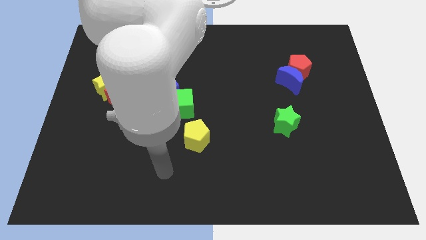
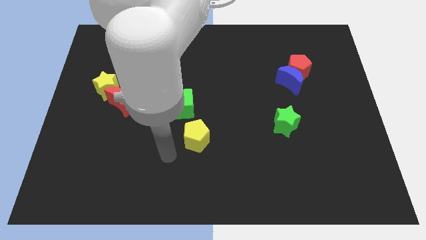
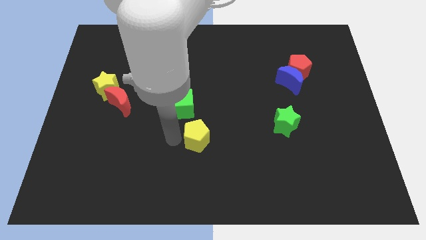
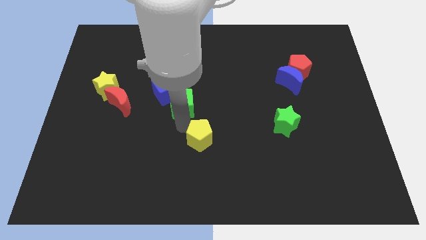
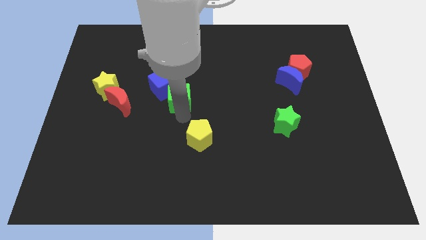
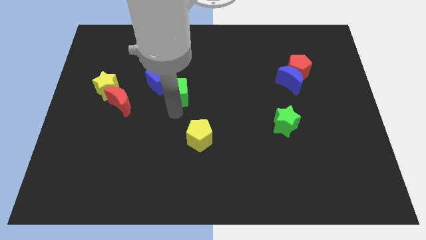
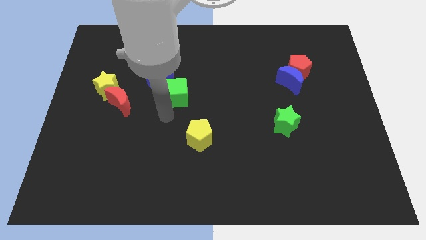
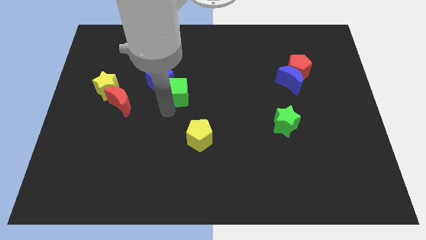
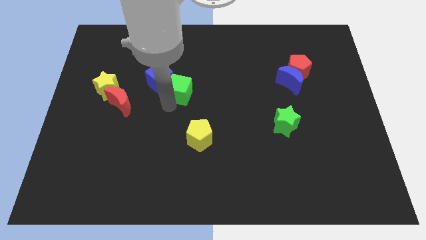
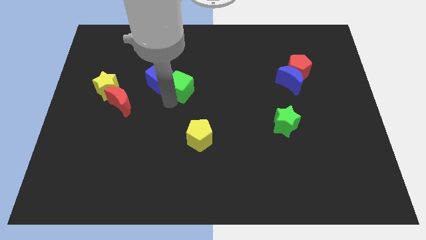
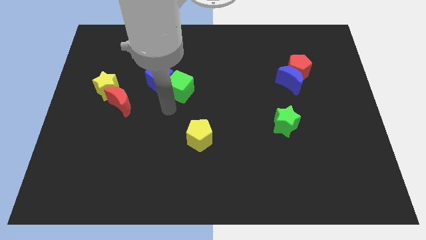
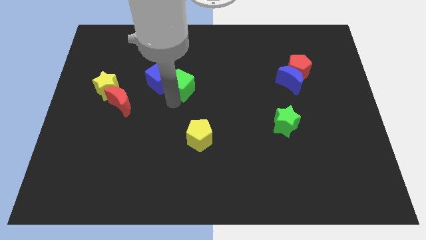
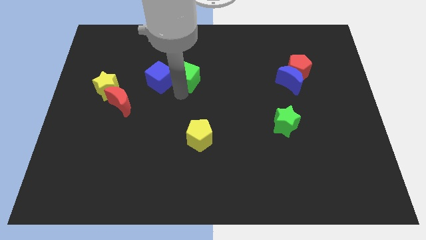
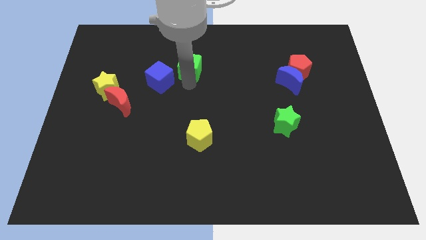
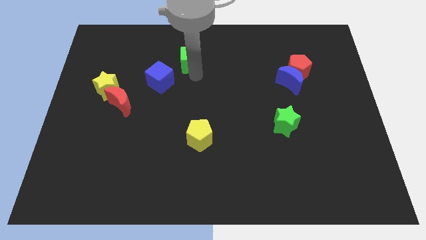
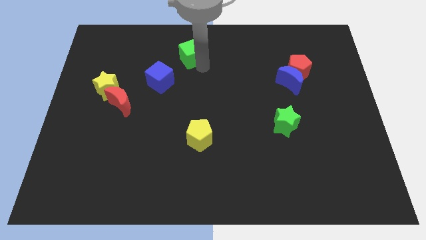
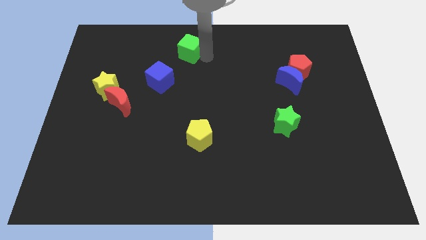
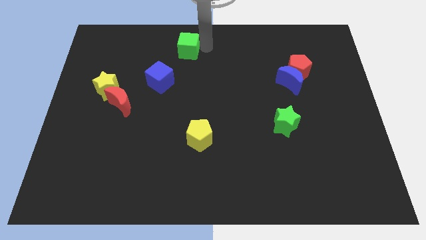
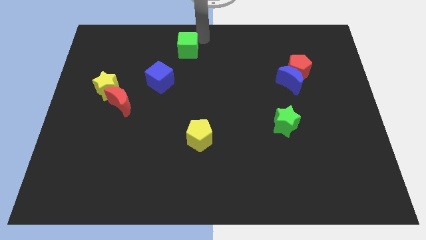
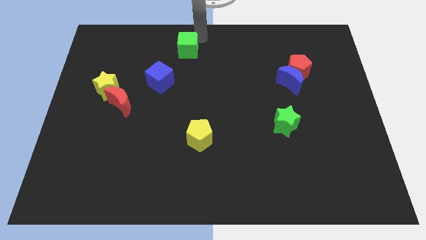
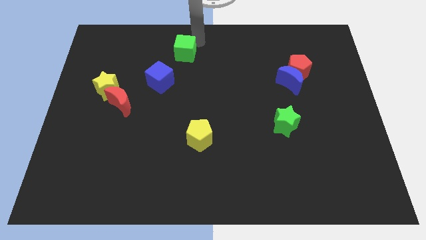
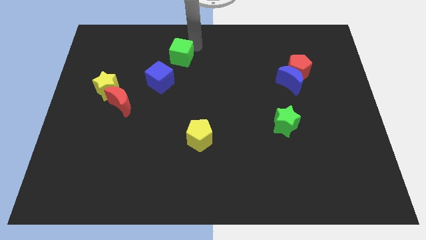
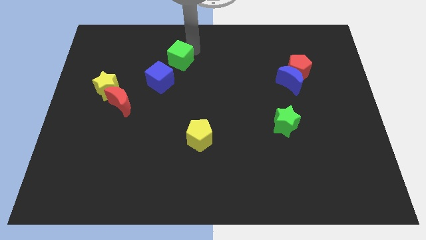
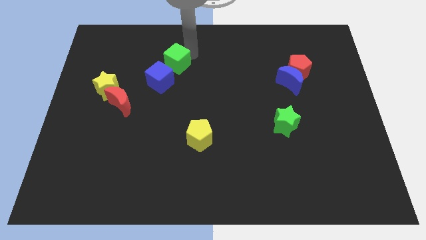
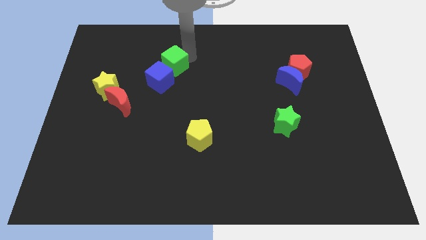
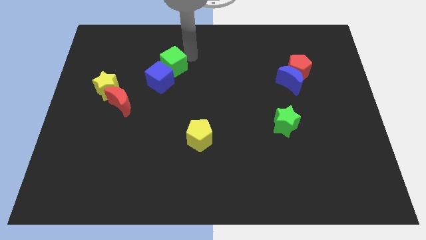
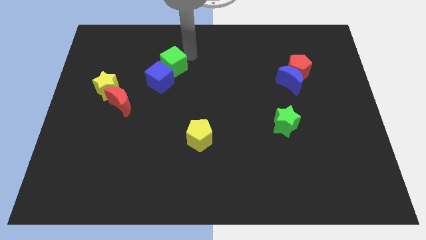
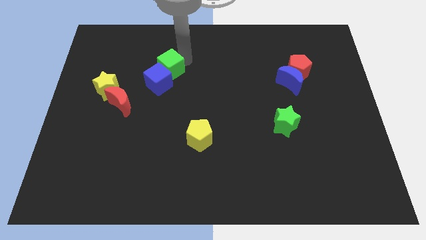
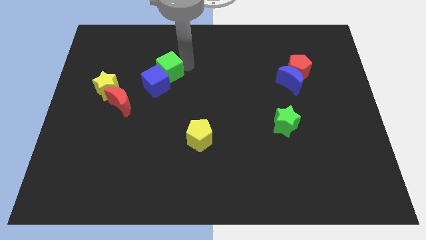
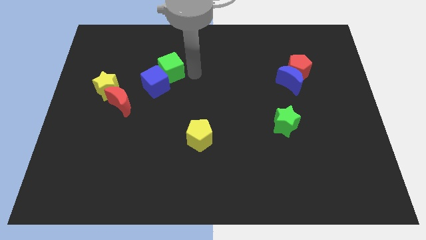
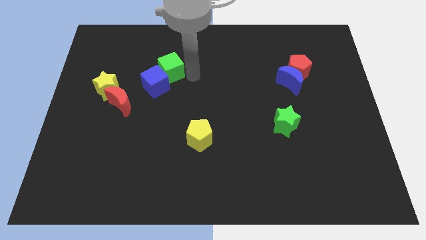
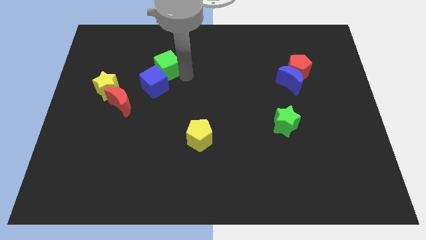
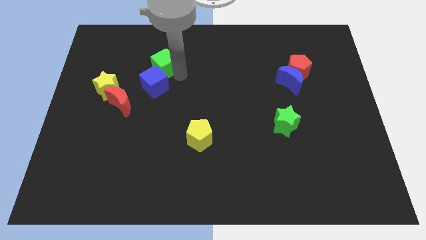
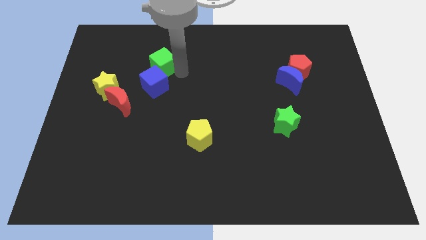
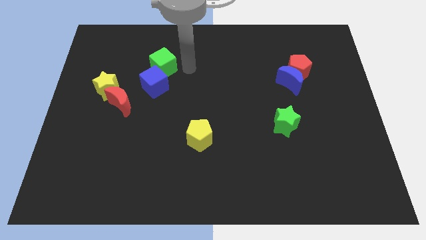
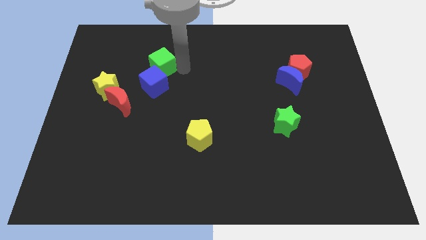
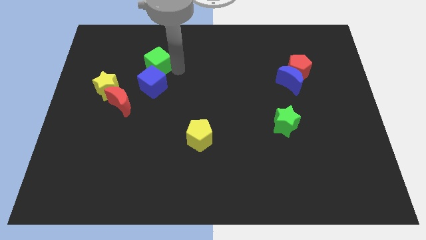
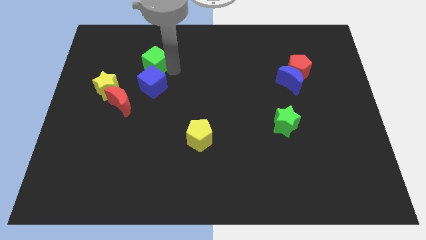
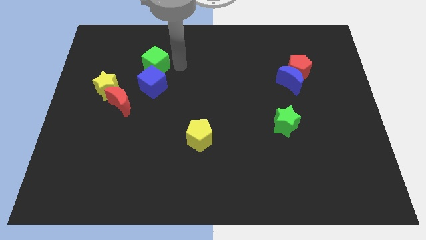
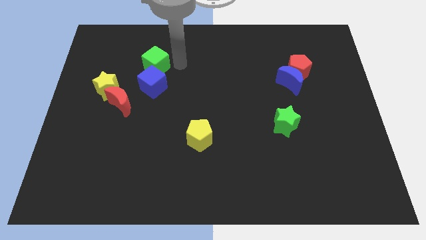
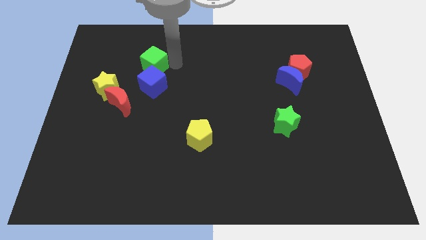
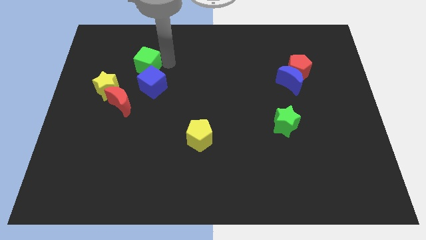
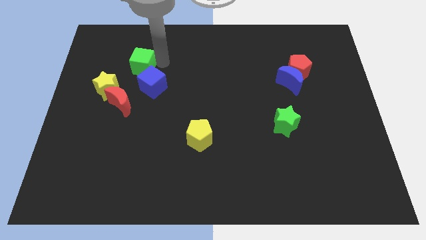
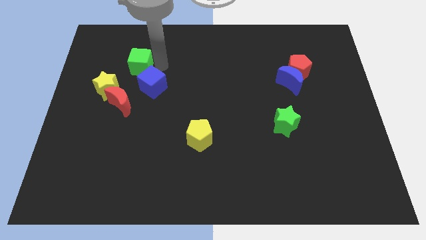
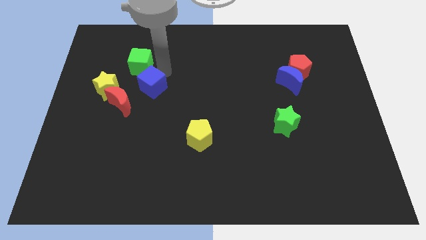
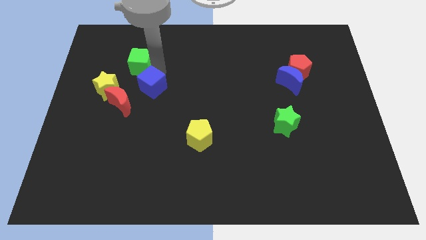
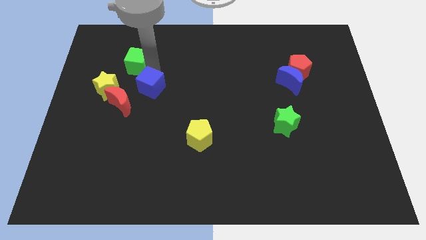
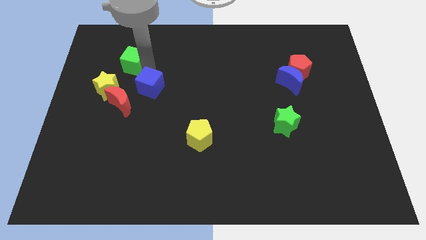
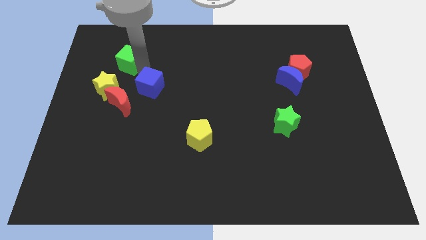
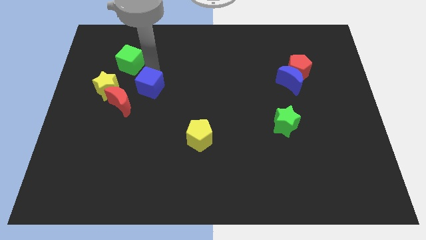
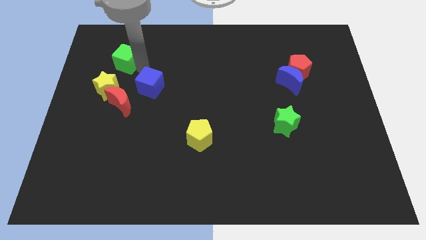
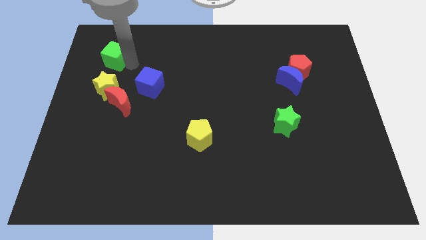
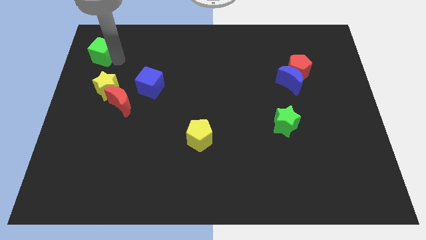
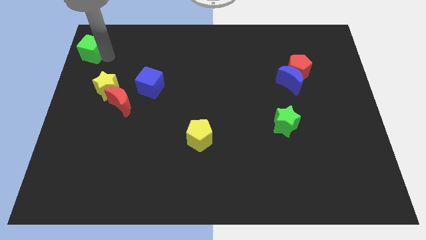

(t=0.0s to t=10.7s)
push the green cube to the upper left corner

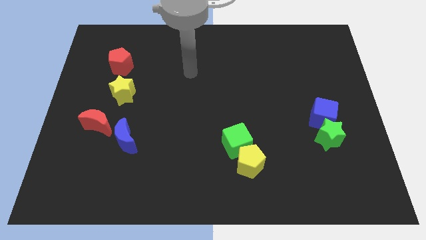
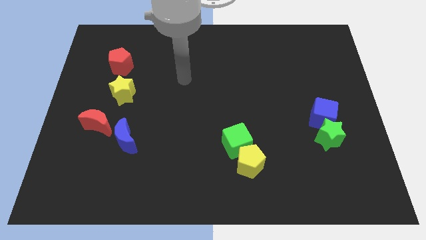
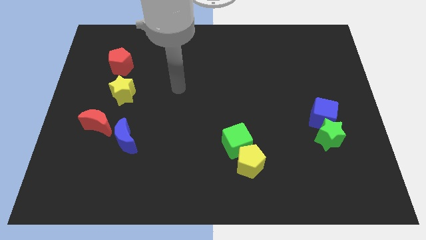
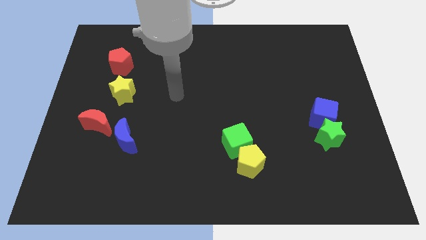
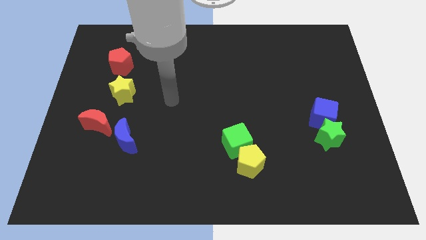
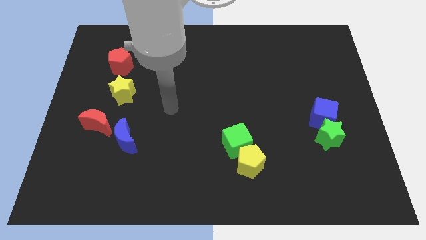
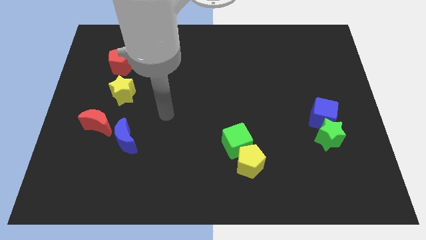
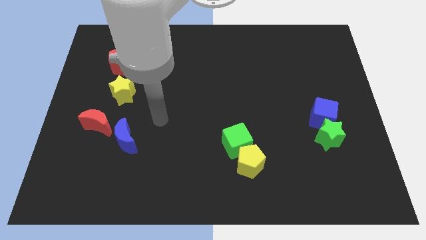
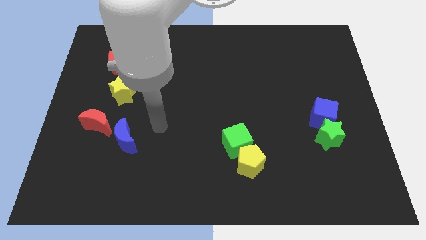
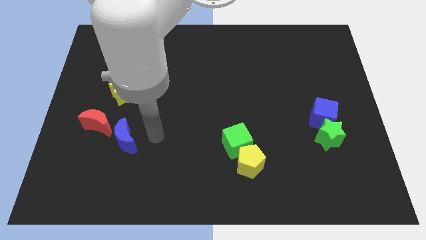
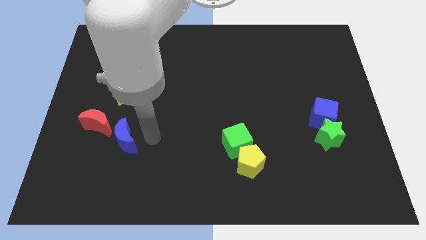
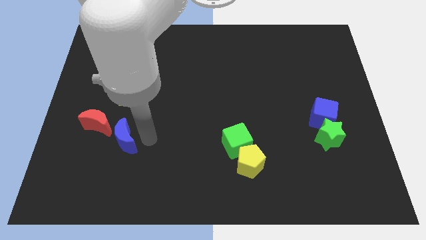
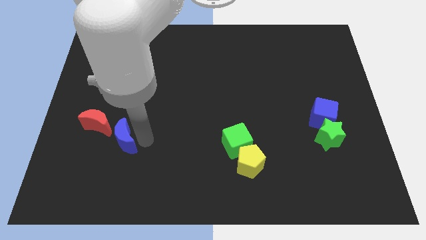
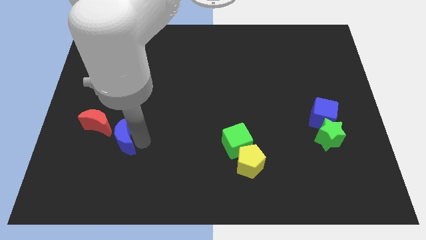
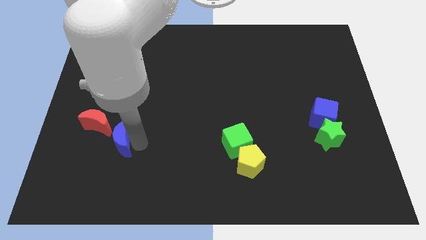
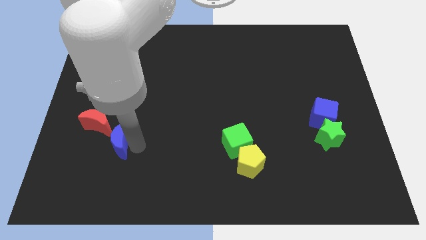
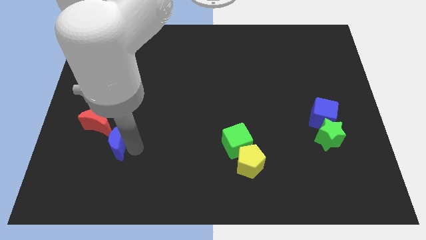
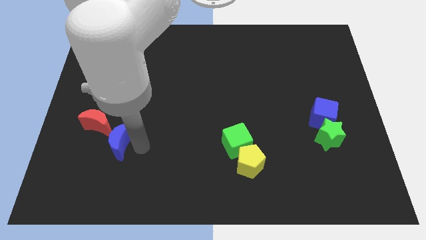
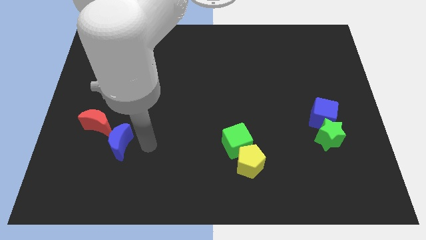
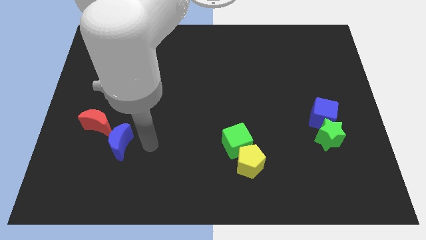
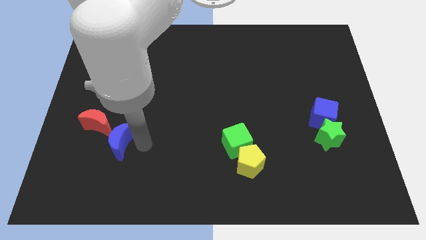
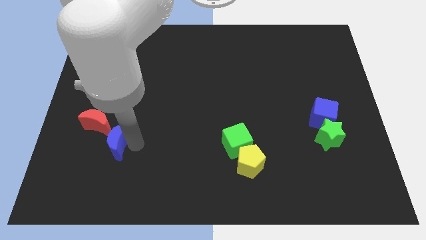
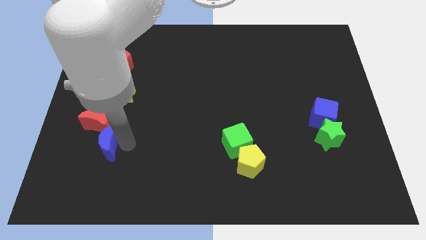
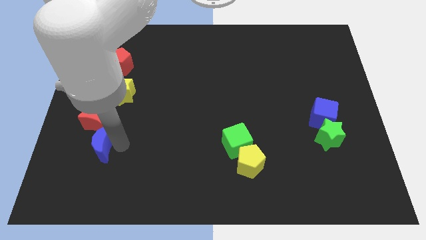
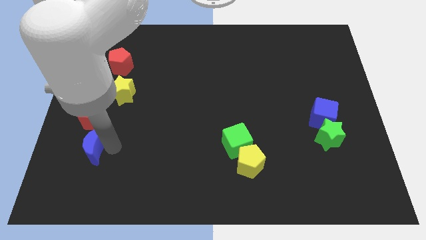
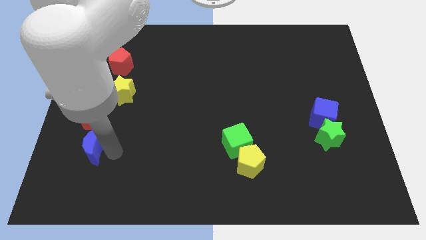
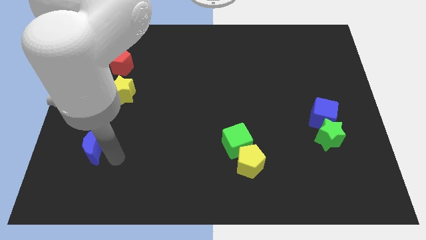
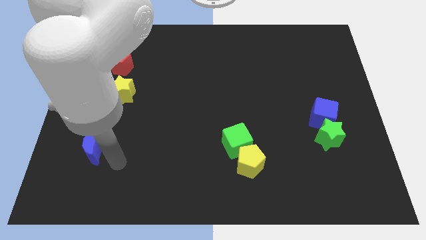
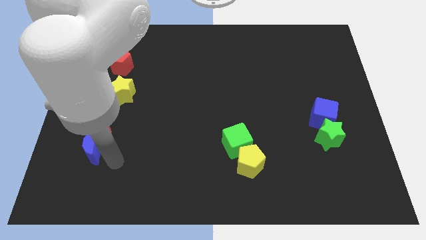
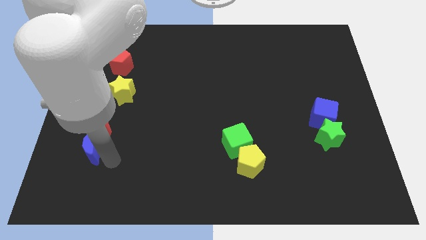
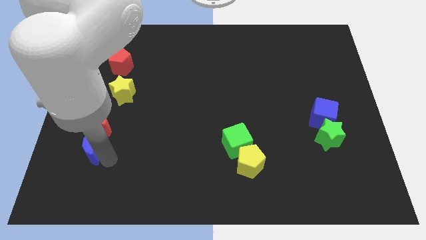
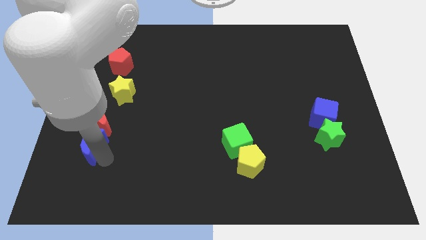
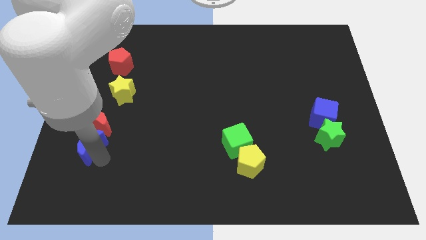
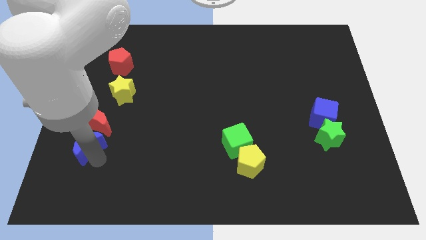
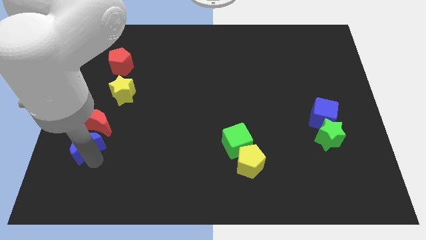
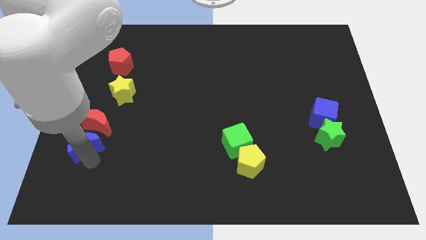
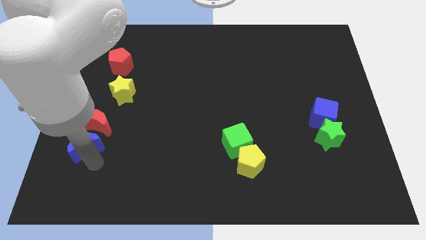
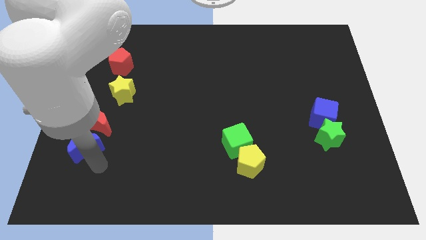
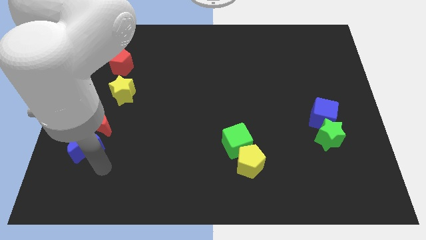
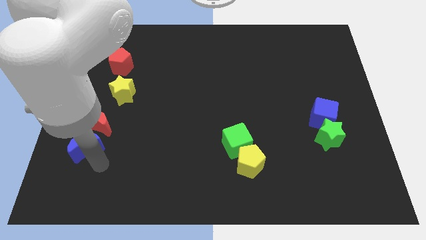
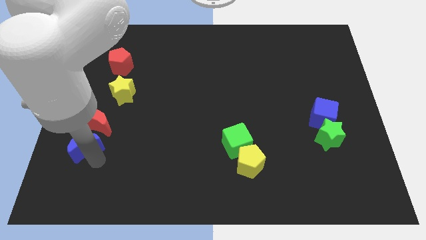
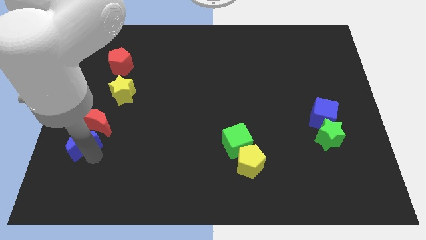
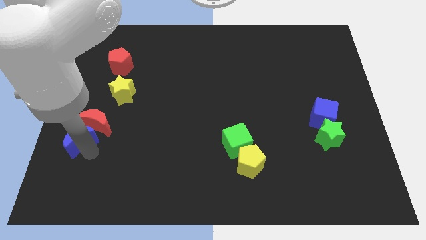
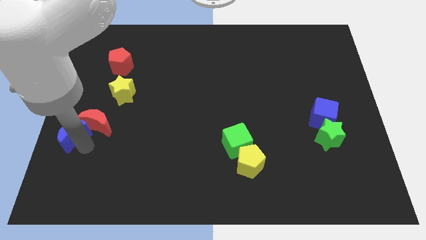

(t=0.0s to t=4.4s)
put the blue moon to the left side of the board
